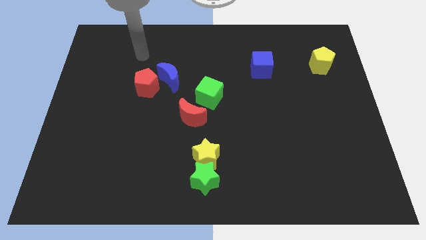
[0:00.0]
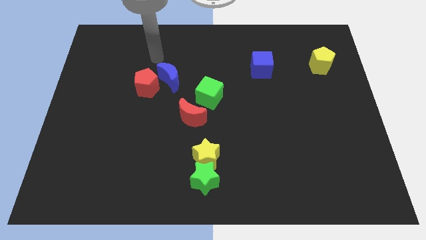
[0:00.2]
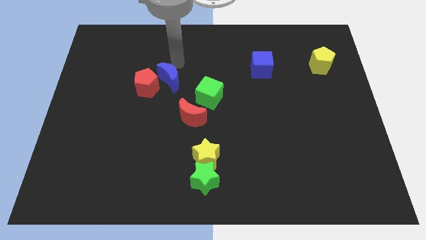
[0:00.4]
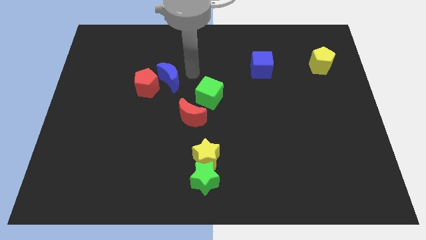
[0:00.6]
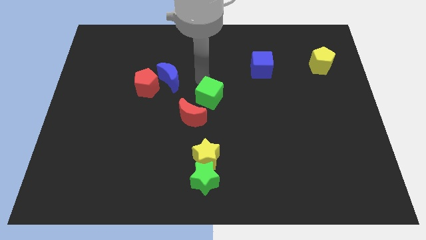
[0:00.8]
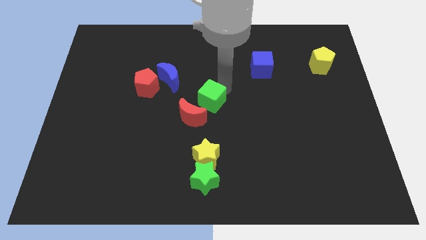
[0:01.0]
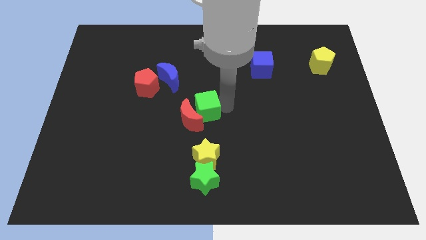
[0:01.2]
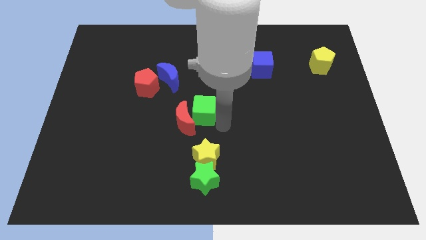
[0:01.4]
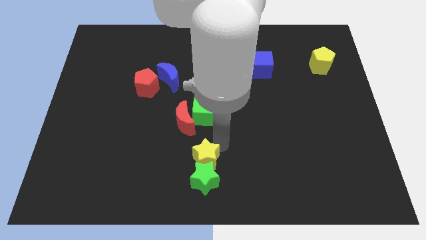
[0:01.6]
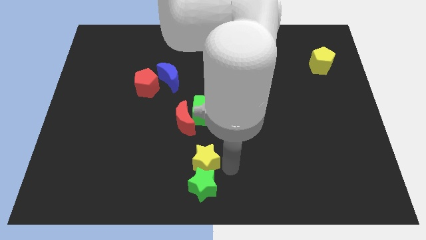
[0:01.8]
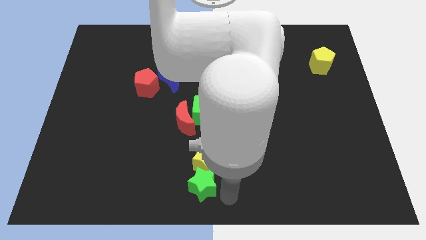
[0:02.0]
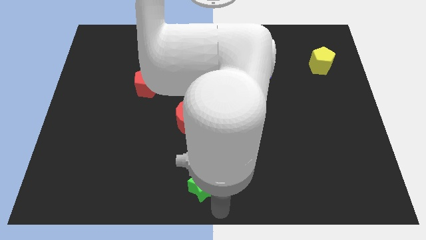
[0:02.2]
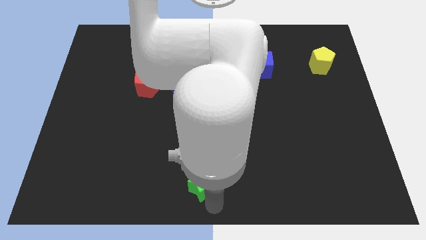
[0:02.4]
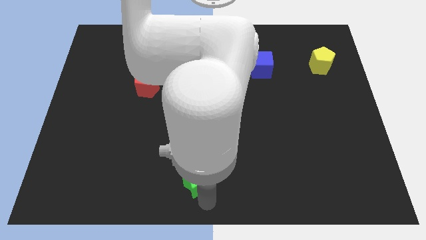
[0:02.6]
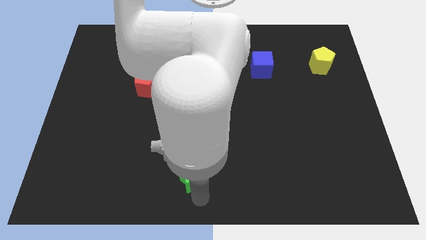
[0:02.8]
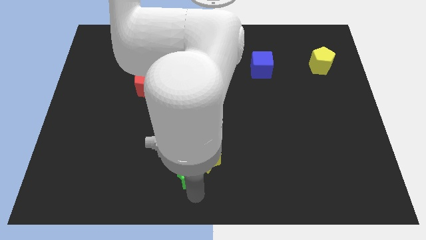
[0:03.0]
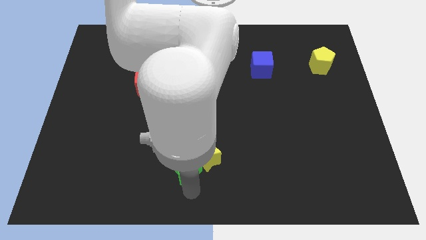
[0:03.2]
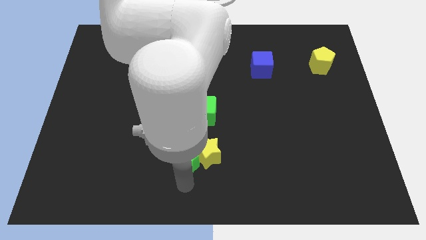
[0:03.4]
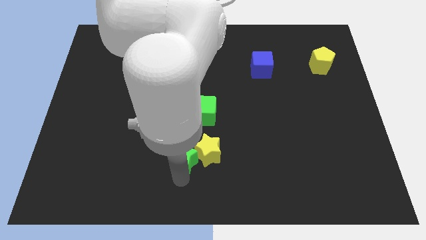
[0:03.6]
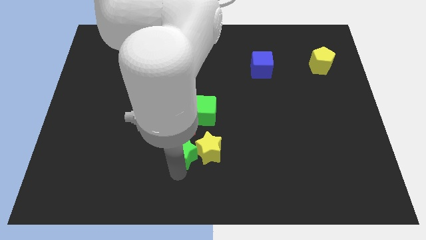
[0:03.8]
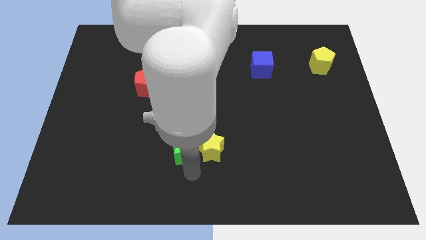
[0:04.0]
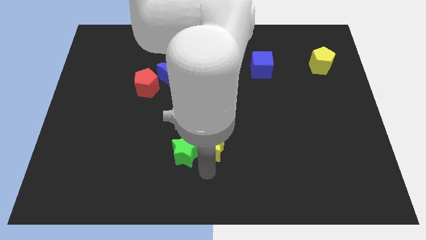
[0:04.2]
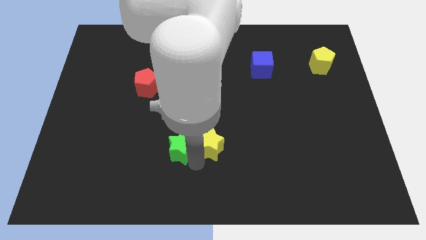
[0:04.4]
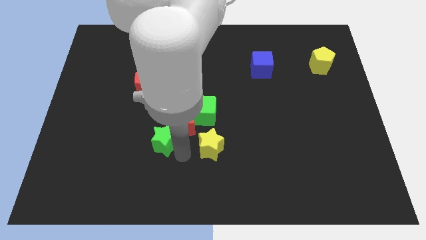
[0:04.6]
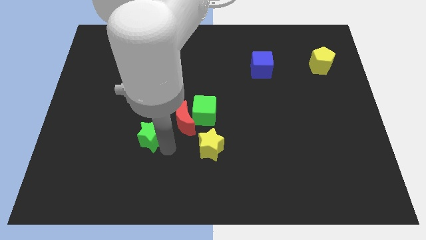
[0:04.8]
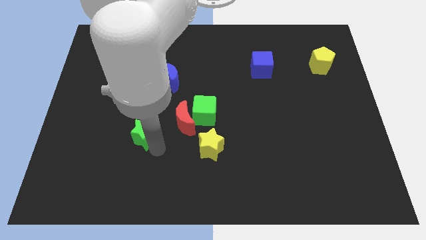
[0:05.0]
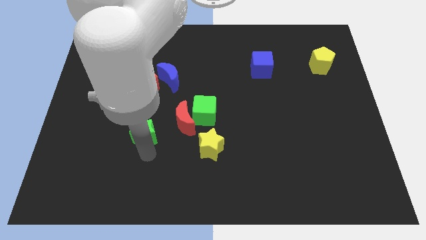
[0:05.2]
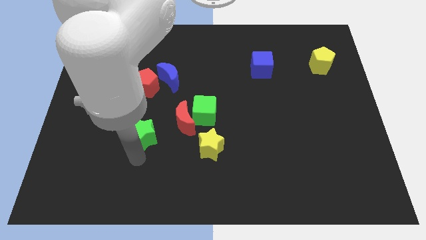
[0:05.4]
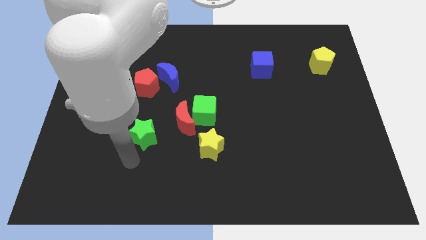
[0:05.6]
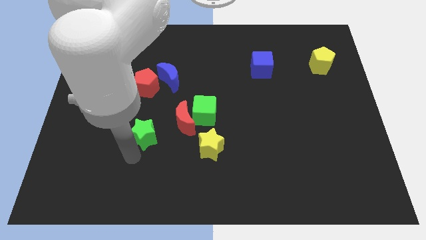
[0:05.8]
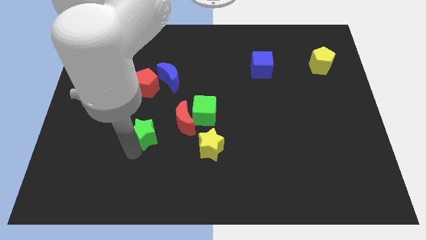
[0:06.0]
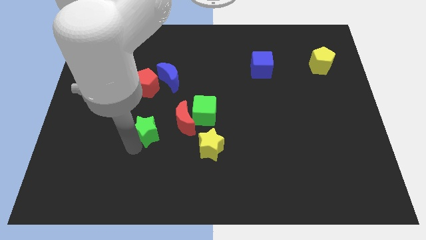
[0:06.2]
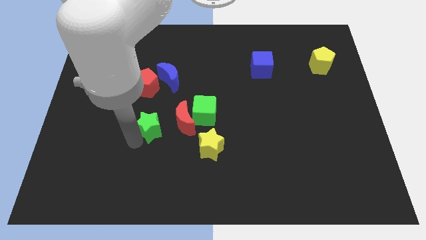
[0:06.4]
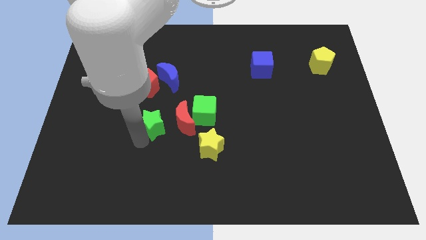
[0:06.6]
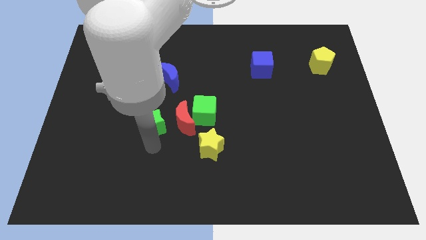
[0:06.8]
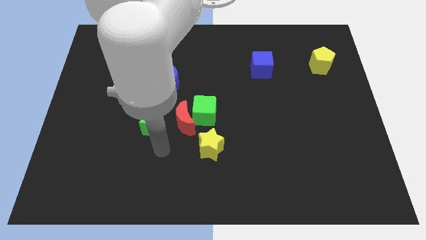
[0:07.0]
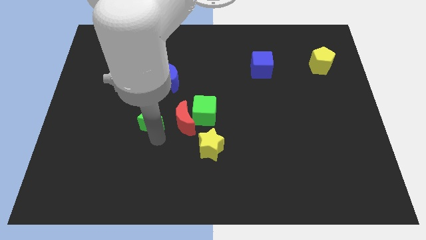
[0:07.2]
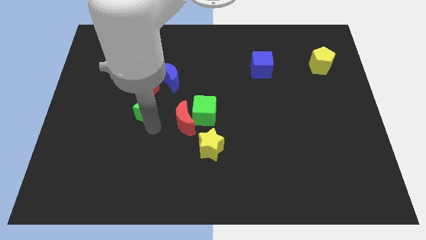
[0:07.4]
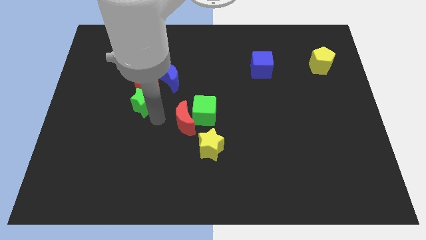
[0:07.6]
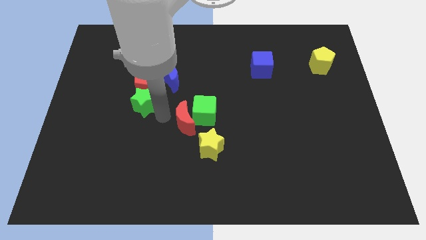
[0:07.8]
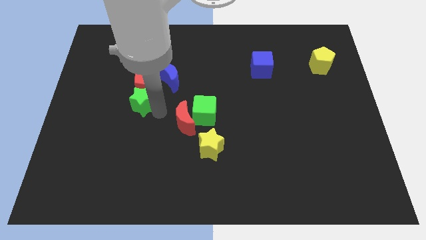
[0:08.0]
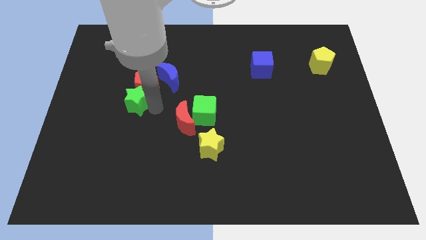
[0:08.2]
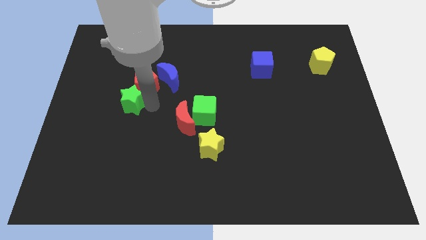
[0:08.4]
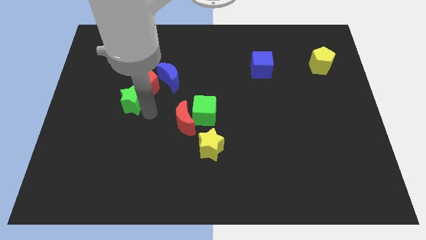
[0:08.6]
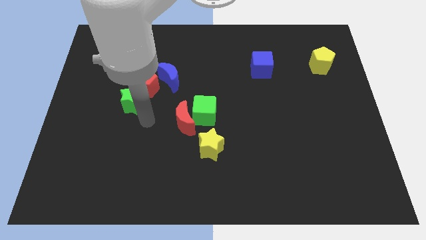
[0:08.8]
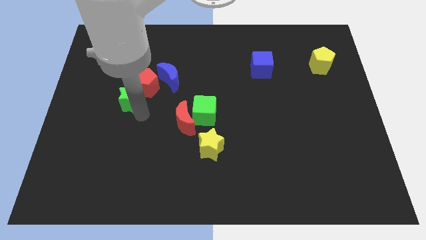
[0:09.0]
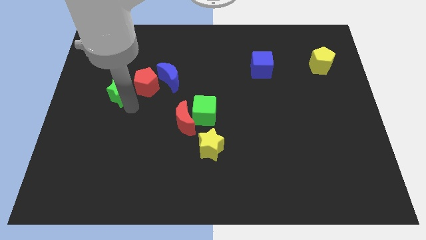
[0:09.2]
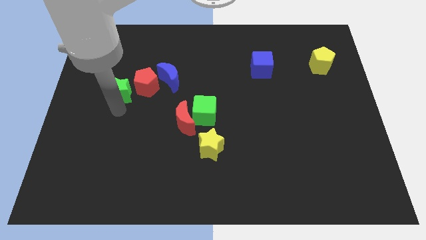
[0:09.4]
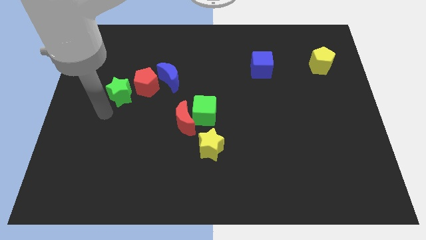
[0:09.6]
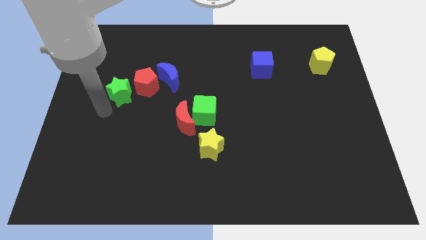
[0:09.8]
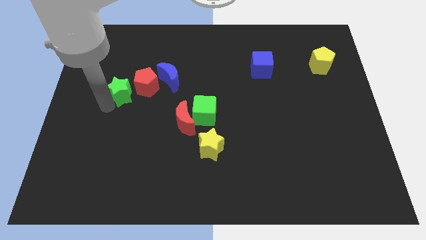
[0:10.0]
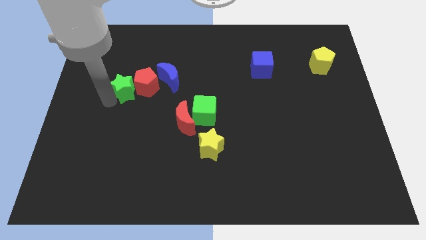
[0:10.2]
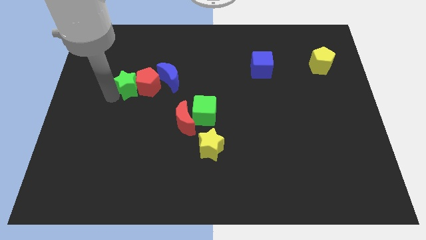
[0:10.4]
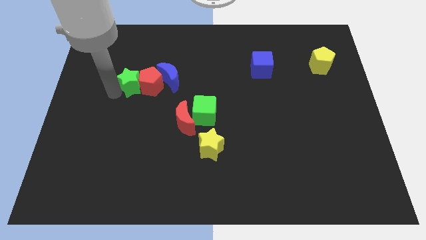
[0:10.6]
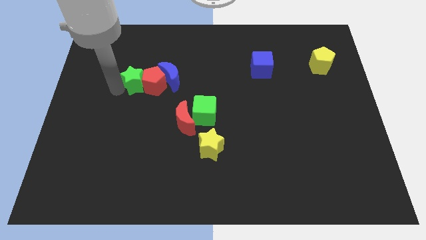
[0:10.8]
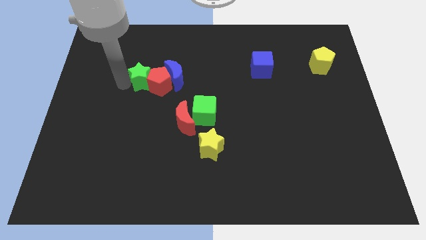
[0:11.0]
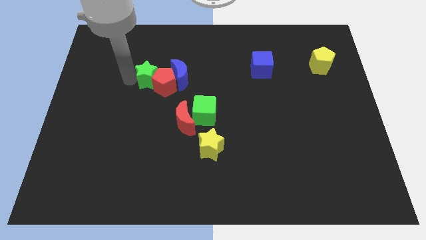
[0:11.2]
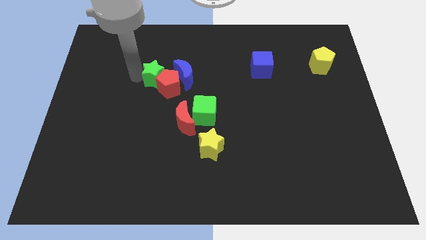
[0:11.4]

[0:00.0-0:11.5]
put the green star to the top side of the red pentagon
